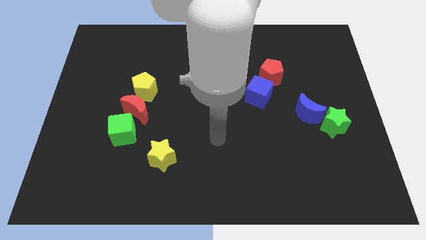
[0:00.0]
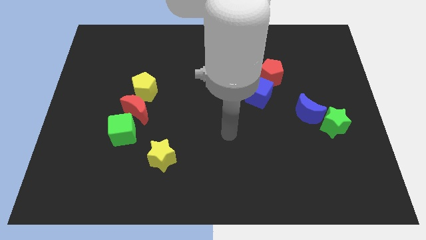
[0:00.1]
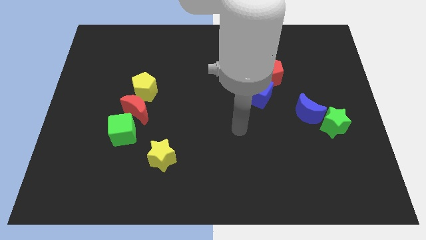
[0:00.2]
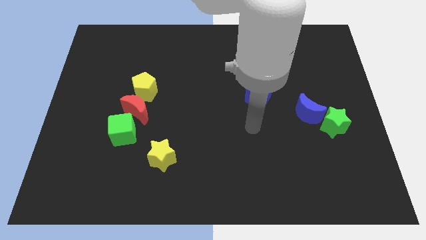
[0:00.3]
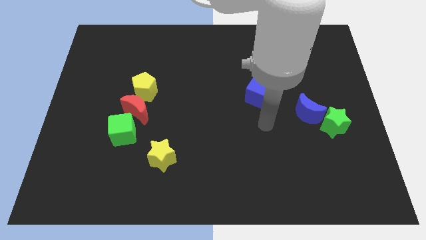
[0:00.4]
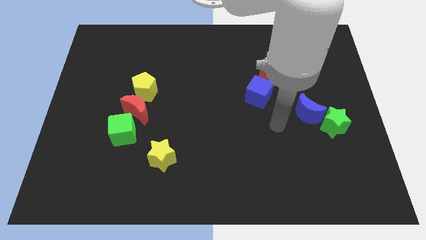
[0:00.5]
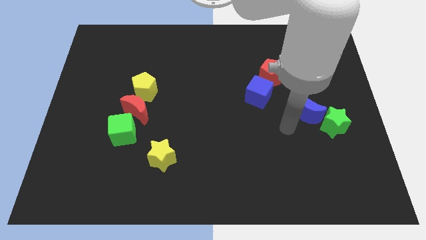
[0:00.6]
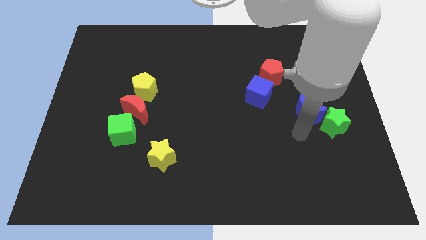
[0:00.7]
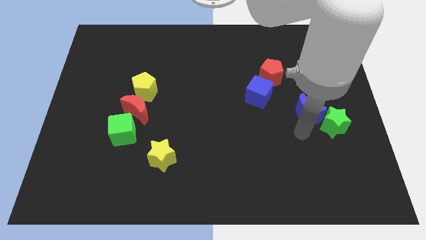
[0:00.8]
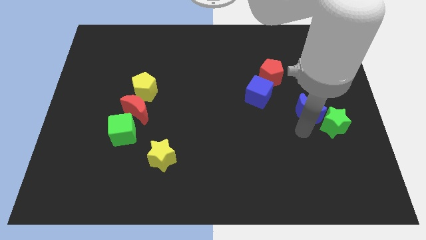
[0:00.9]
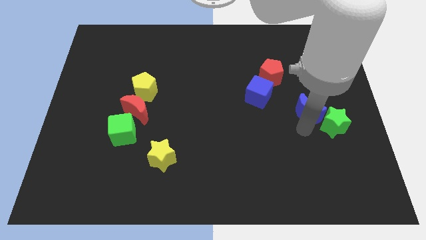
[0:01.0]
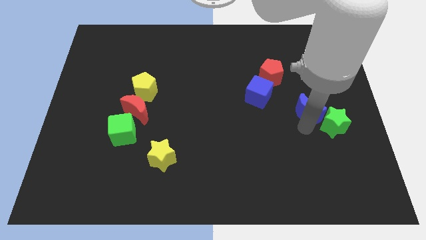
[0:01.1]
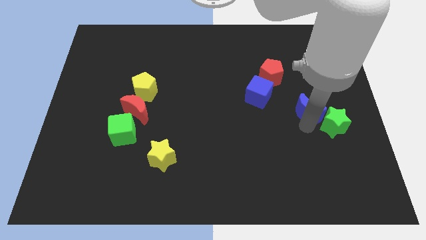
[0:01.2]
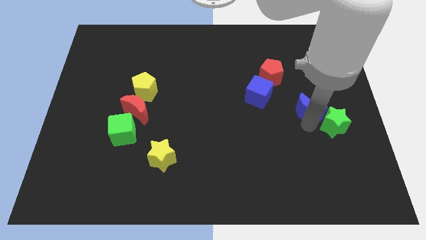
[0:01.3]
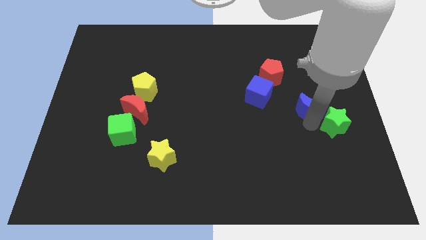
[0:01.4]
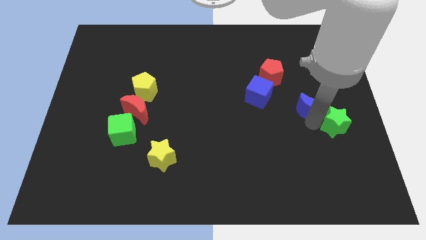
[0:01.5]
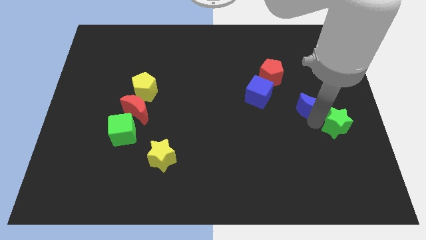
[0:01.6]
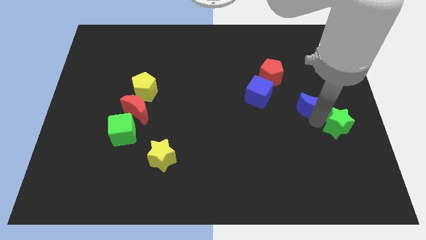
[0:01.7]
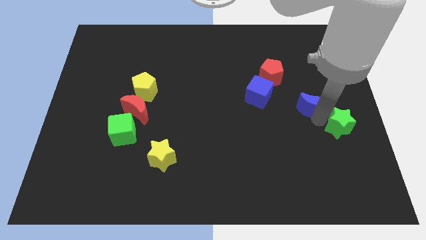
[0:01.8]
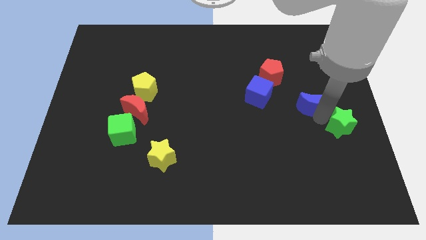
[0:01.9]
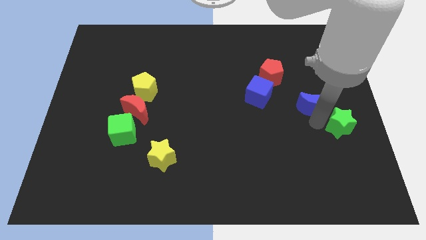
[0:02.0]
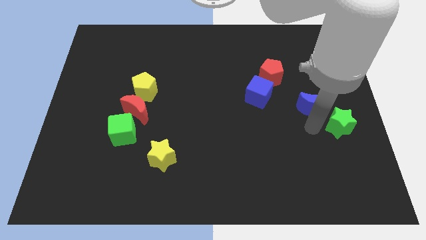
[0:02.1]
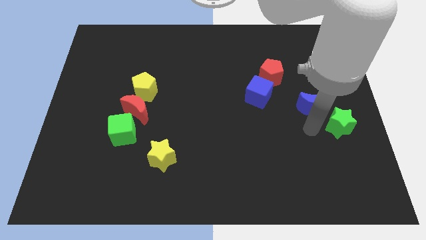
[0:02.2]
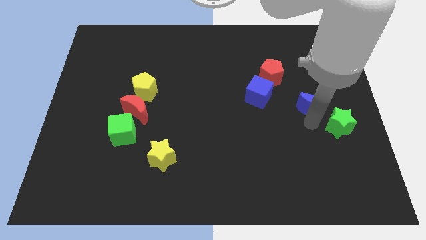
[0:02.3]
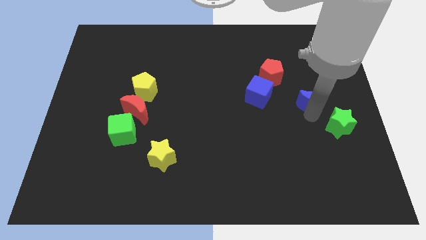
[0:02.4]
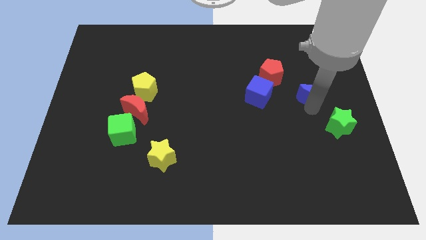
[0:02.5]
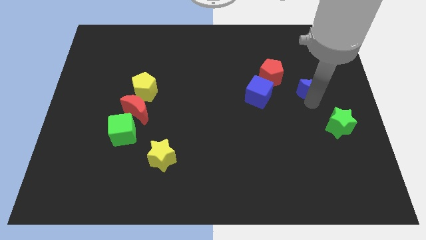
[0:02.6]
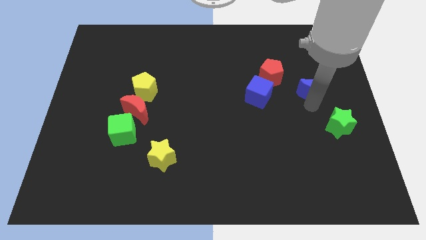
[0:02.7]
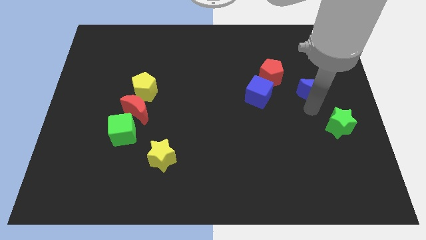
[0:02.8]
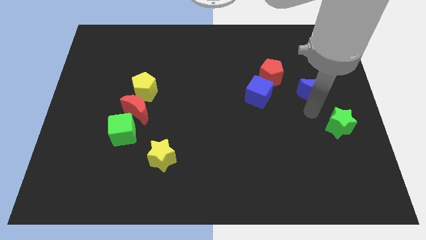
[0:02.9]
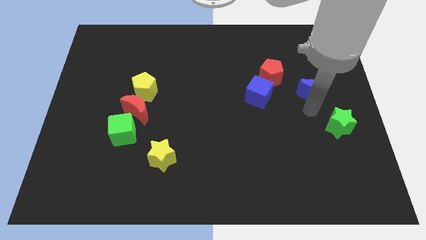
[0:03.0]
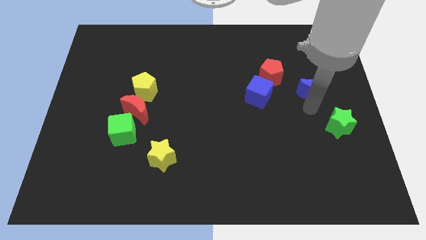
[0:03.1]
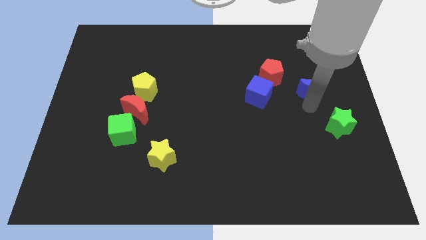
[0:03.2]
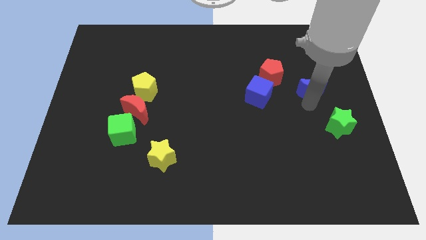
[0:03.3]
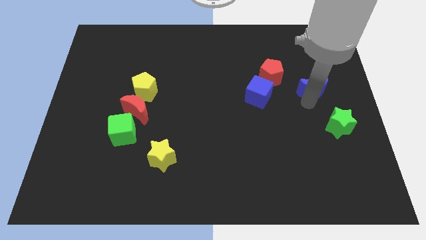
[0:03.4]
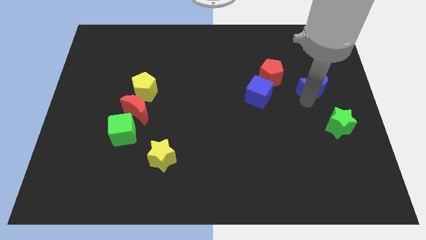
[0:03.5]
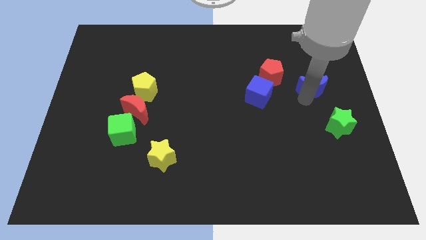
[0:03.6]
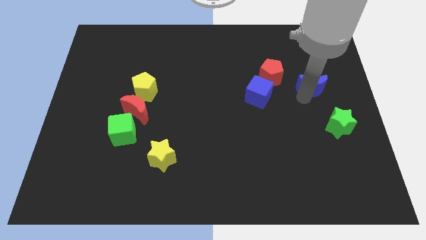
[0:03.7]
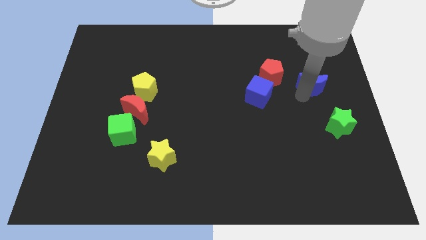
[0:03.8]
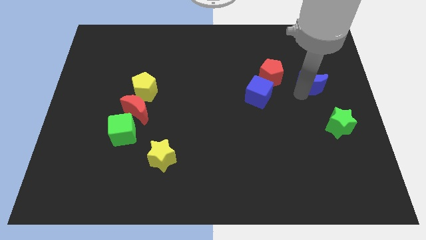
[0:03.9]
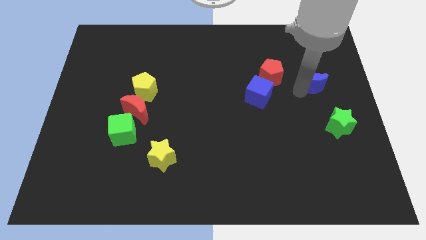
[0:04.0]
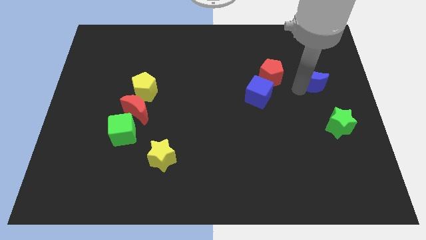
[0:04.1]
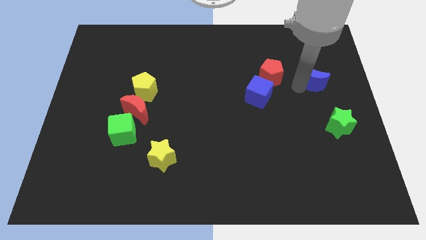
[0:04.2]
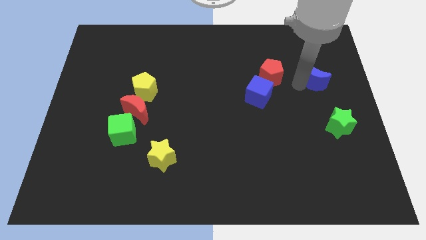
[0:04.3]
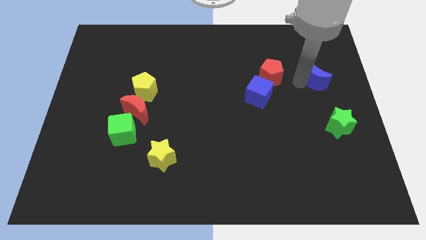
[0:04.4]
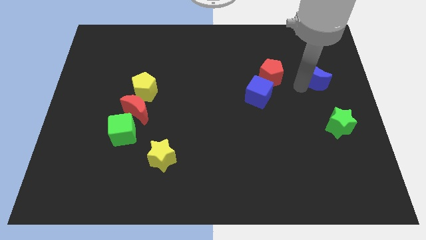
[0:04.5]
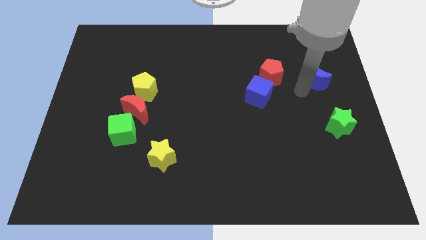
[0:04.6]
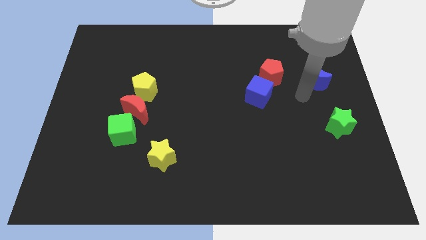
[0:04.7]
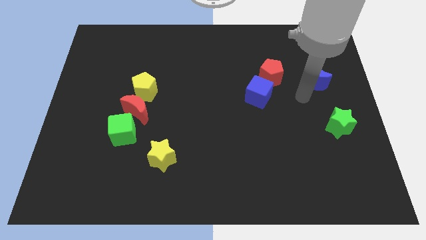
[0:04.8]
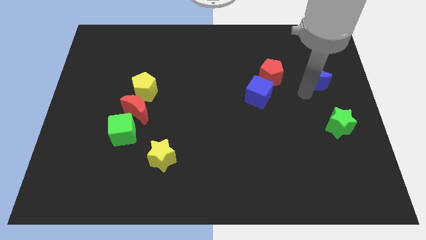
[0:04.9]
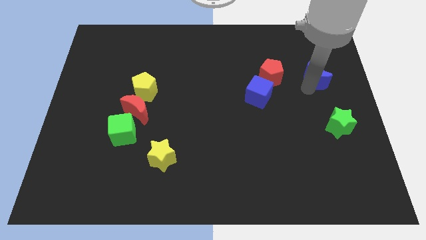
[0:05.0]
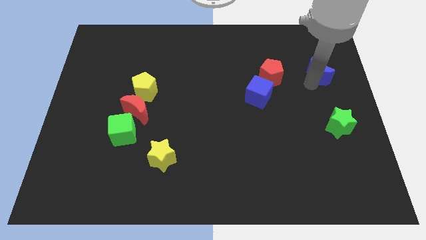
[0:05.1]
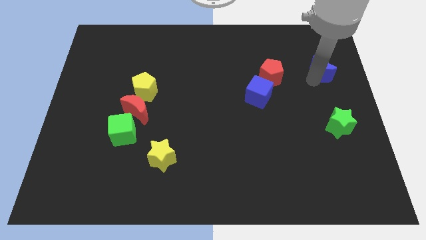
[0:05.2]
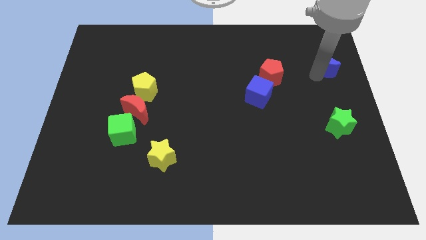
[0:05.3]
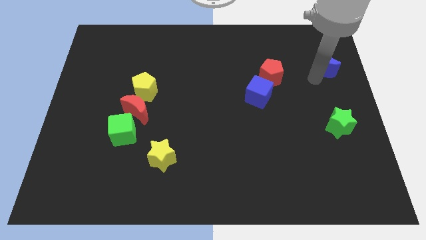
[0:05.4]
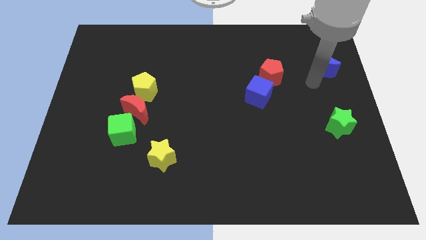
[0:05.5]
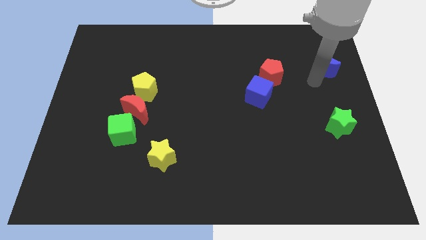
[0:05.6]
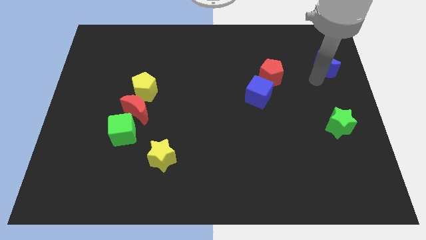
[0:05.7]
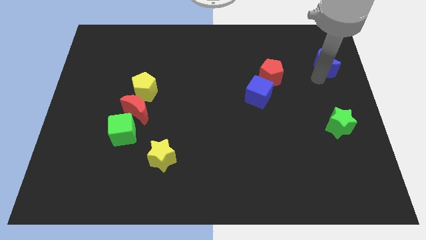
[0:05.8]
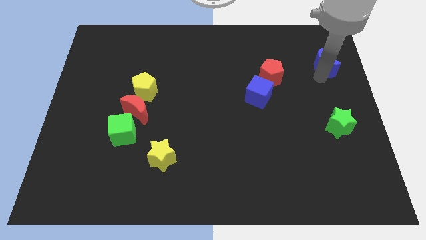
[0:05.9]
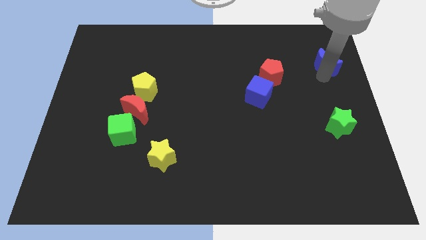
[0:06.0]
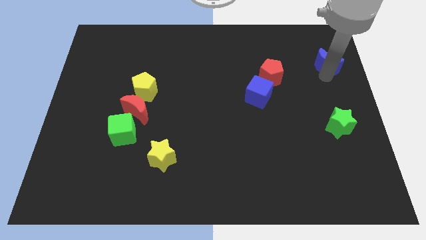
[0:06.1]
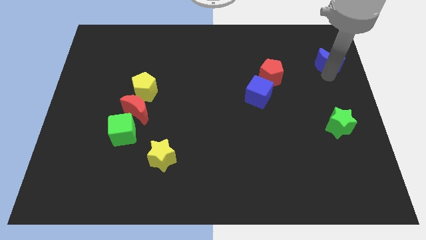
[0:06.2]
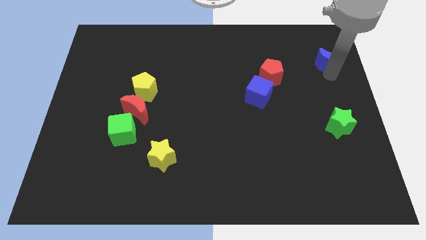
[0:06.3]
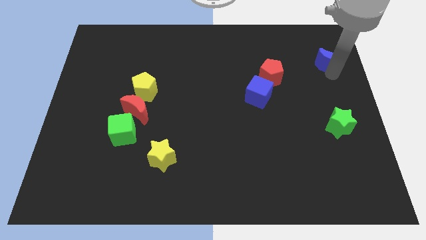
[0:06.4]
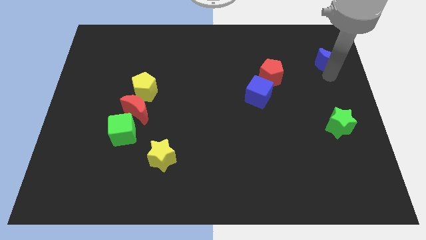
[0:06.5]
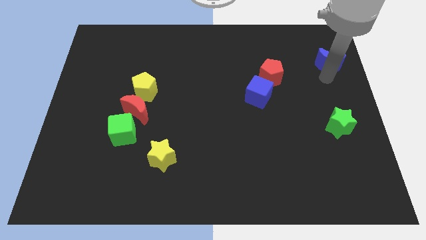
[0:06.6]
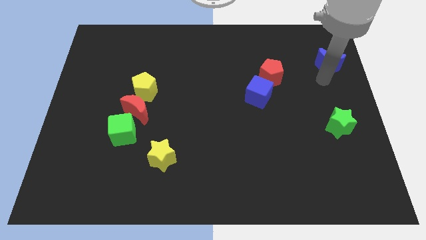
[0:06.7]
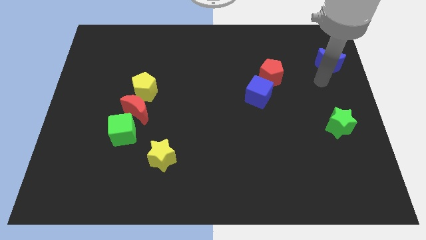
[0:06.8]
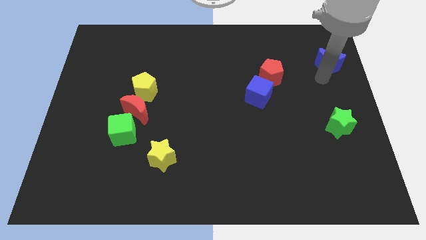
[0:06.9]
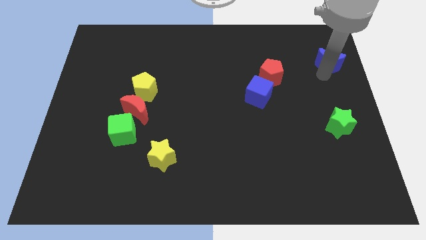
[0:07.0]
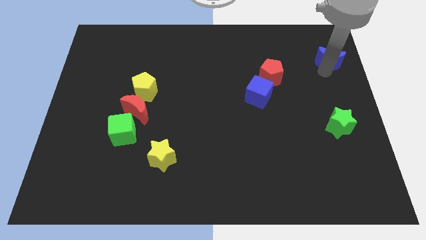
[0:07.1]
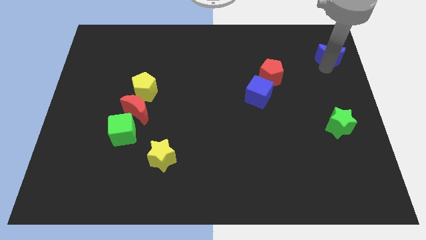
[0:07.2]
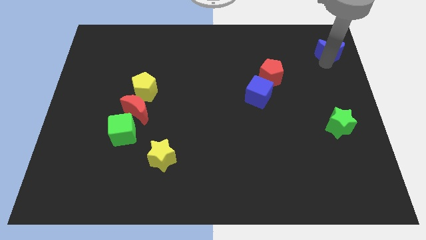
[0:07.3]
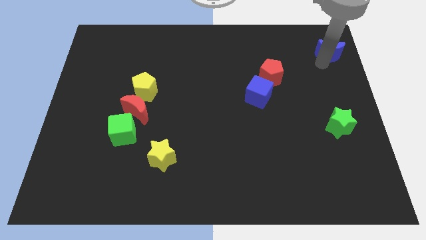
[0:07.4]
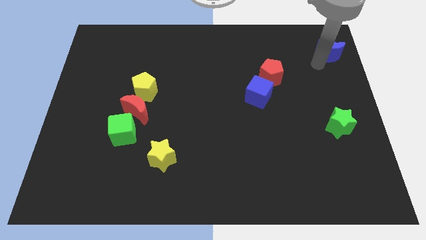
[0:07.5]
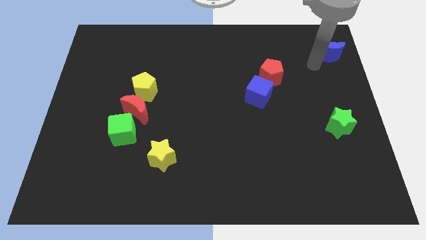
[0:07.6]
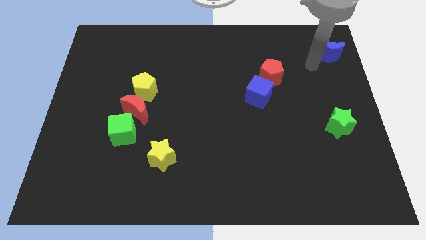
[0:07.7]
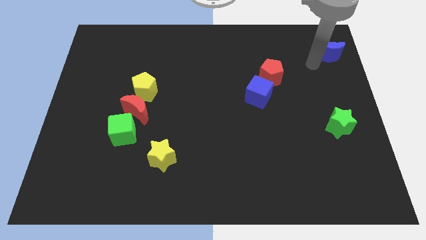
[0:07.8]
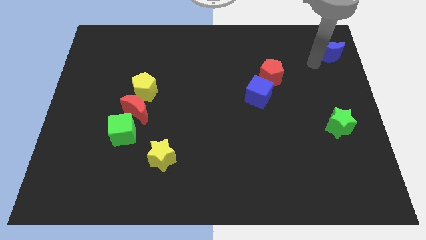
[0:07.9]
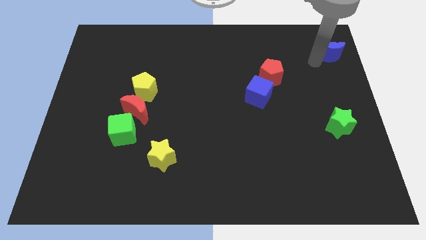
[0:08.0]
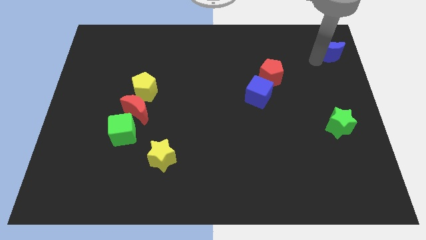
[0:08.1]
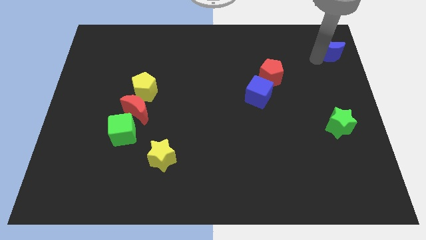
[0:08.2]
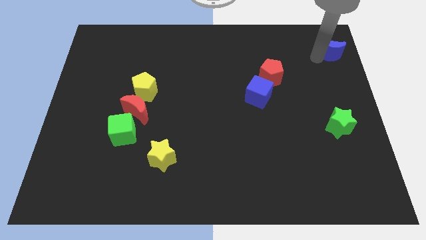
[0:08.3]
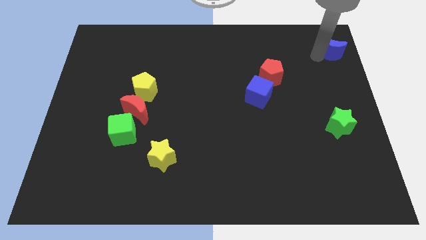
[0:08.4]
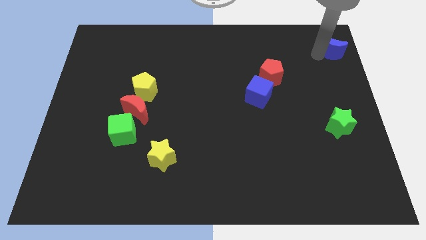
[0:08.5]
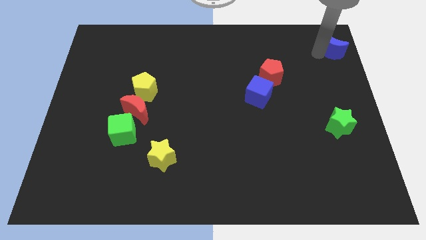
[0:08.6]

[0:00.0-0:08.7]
put the blue moon to the upper right corner
